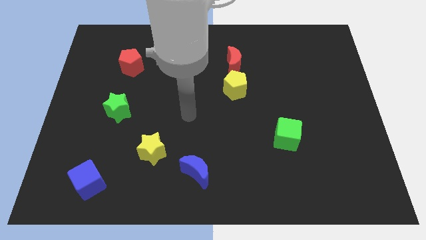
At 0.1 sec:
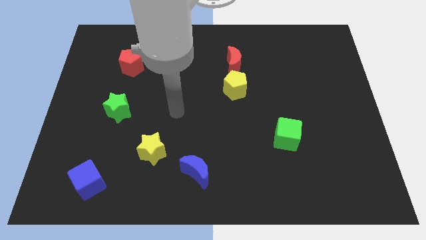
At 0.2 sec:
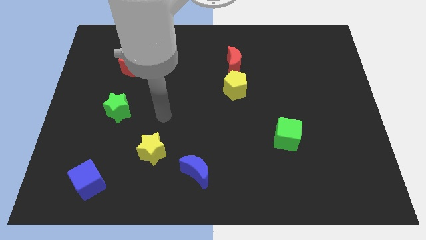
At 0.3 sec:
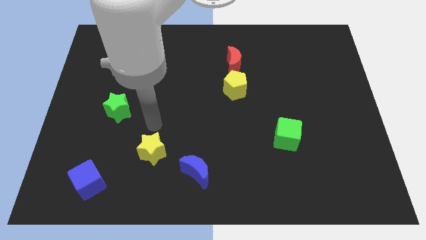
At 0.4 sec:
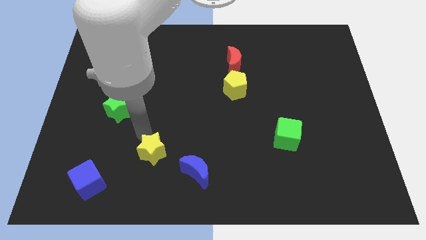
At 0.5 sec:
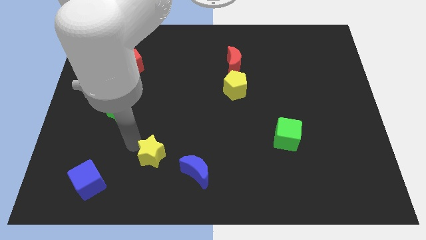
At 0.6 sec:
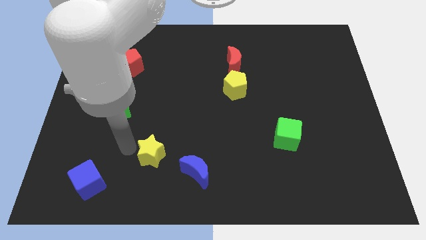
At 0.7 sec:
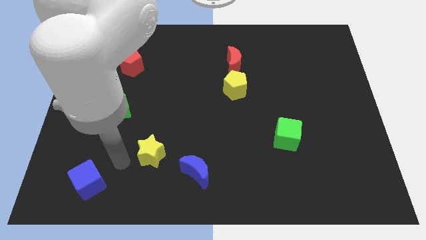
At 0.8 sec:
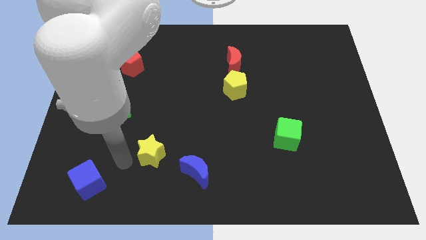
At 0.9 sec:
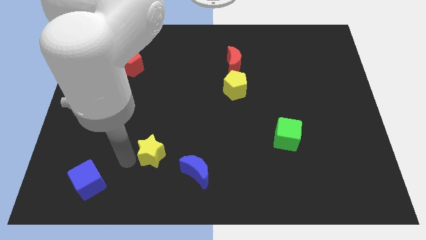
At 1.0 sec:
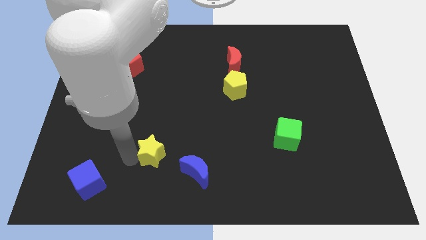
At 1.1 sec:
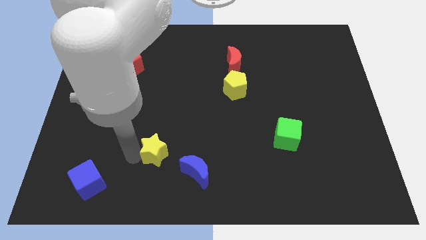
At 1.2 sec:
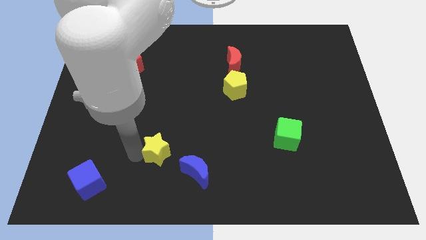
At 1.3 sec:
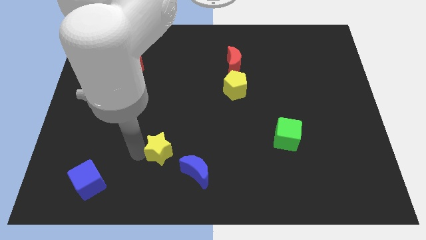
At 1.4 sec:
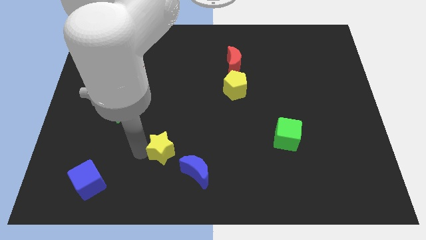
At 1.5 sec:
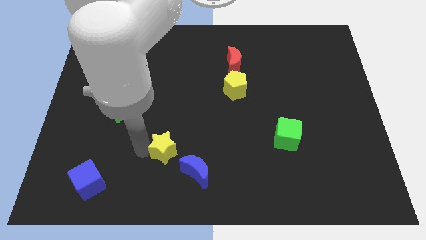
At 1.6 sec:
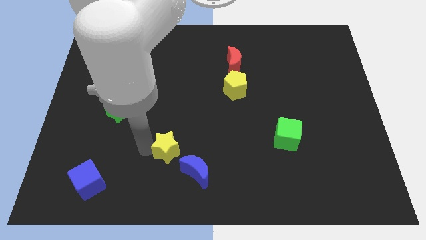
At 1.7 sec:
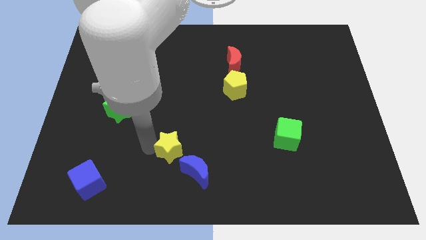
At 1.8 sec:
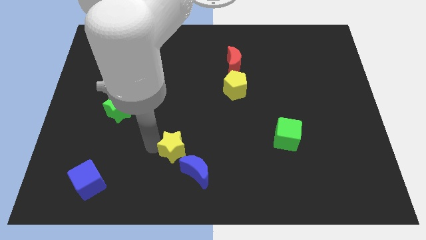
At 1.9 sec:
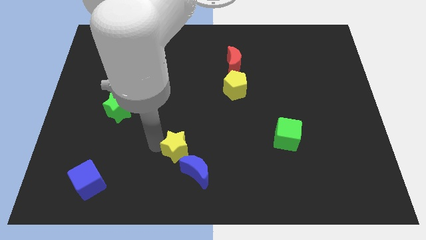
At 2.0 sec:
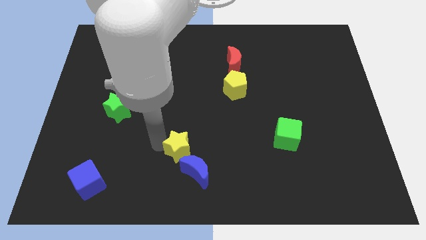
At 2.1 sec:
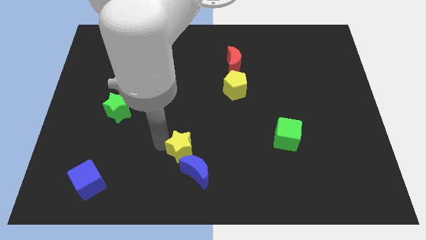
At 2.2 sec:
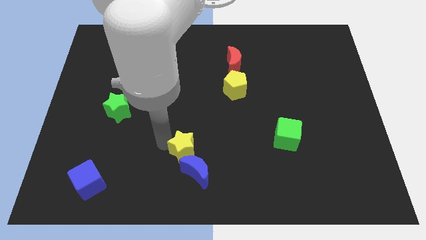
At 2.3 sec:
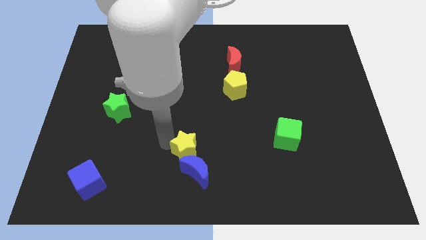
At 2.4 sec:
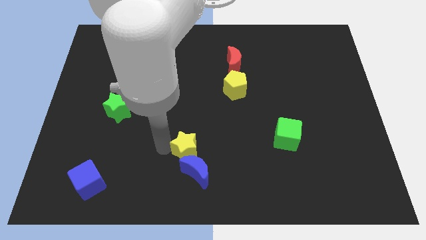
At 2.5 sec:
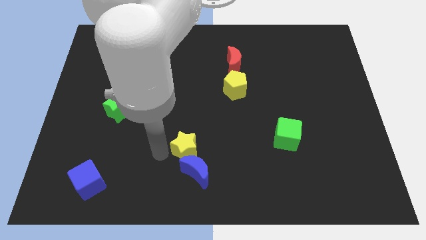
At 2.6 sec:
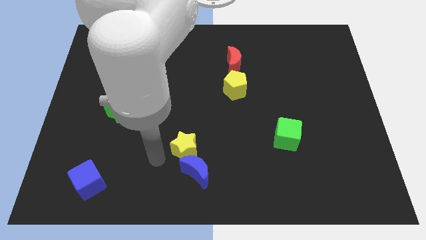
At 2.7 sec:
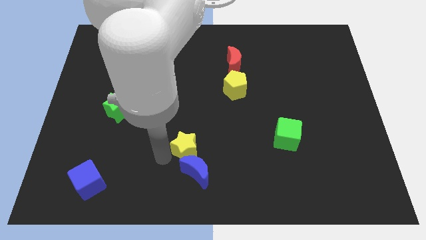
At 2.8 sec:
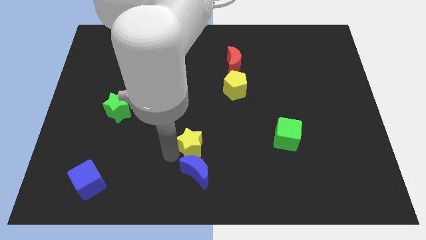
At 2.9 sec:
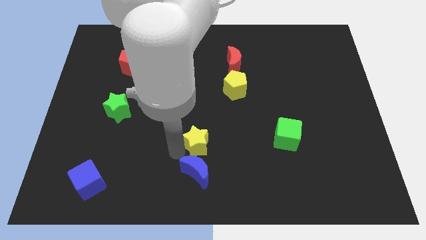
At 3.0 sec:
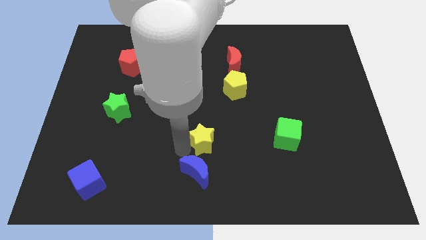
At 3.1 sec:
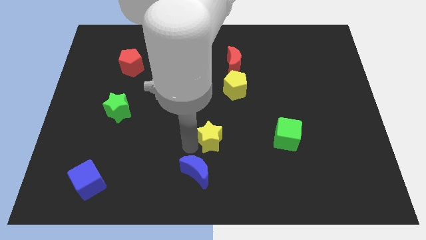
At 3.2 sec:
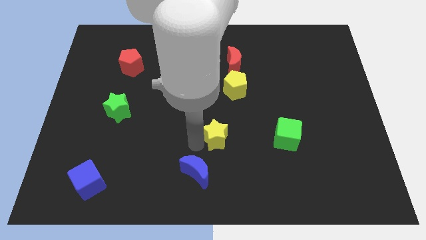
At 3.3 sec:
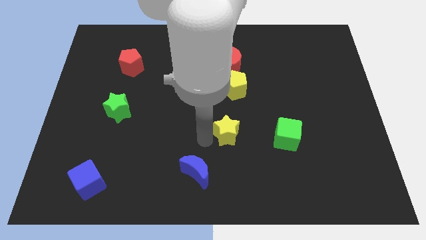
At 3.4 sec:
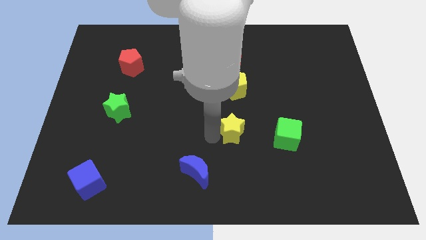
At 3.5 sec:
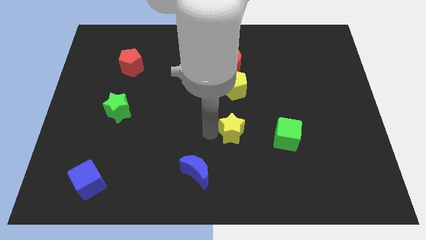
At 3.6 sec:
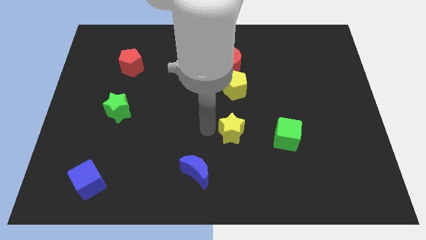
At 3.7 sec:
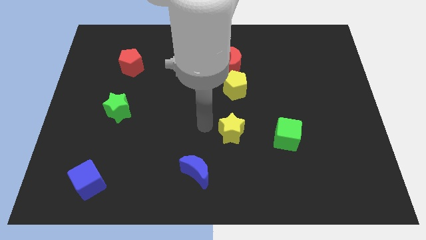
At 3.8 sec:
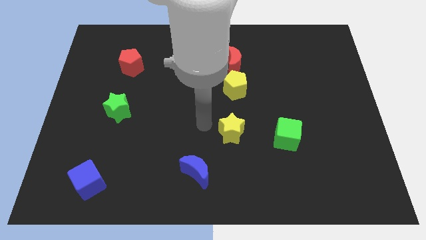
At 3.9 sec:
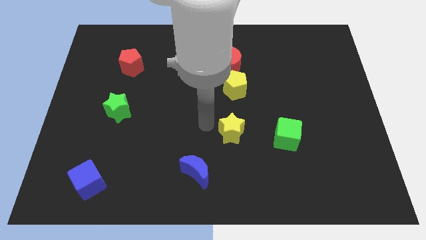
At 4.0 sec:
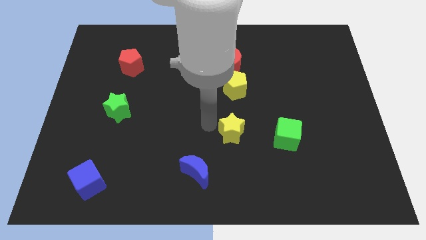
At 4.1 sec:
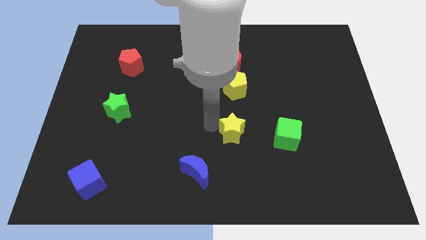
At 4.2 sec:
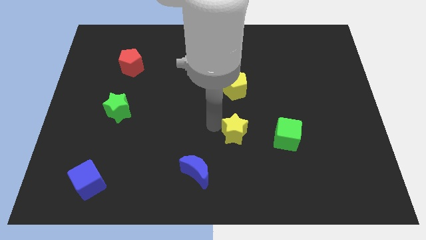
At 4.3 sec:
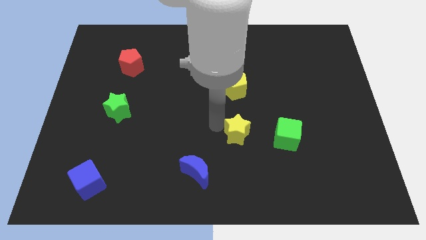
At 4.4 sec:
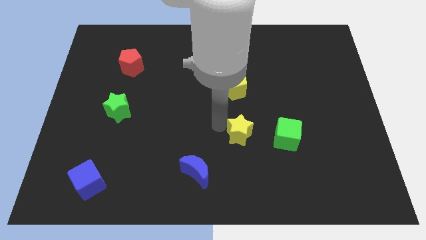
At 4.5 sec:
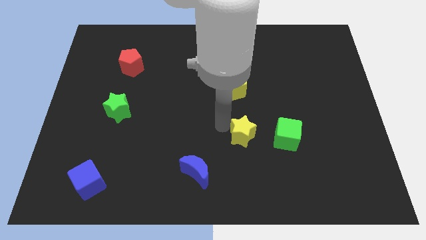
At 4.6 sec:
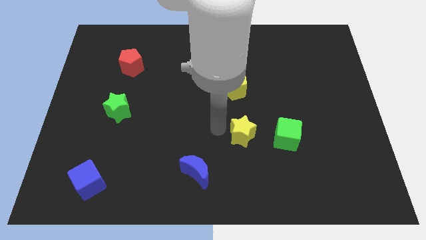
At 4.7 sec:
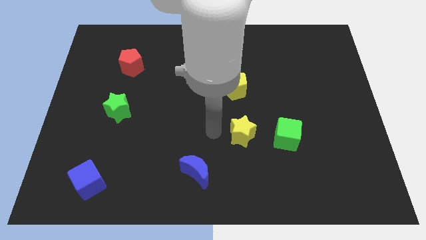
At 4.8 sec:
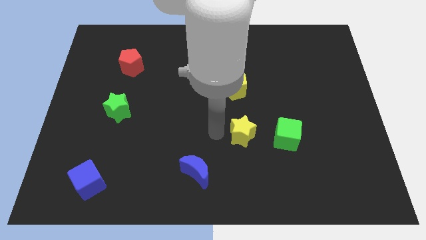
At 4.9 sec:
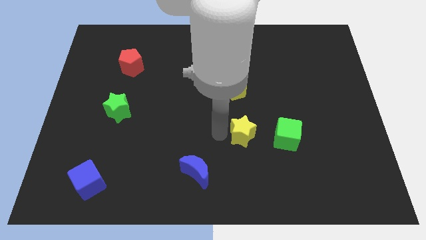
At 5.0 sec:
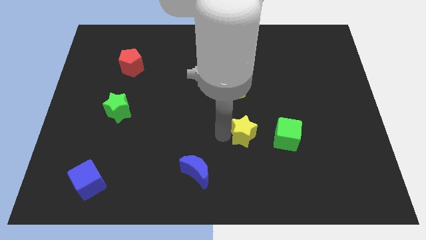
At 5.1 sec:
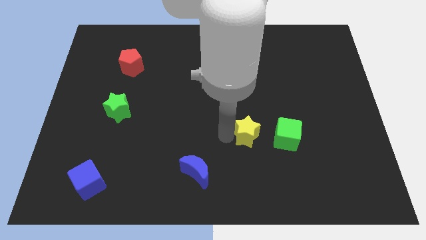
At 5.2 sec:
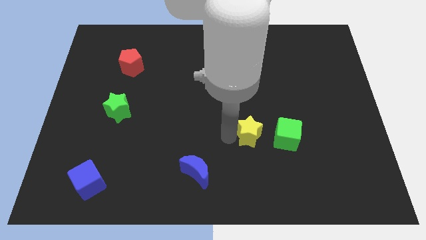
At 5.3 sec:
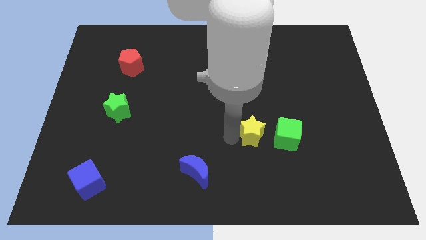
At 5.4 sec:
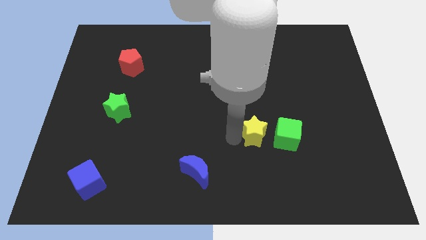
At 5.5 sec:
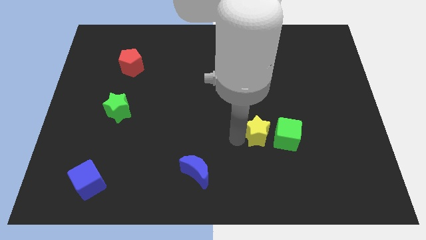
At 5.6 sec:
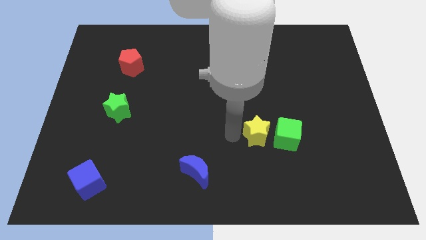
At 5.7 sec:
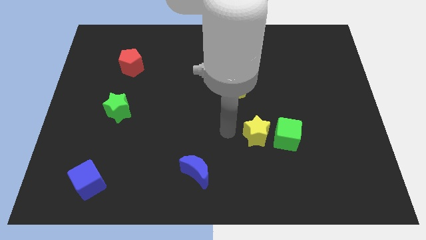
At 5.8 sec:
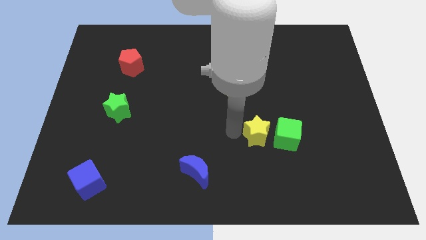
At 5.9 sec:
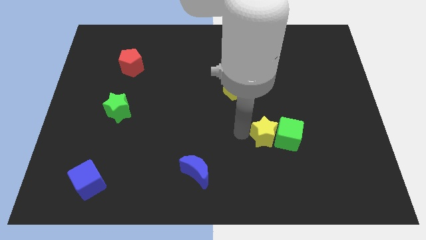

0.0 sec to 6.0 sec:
put the yellow star next to the green cube
